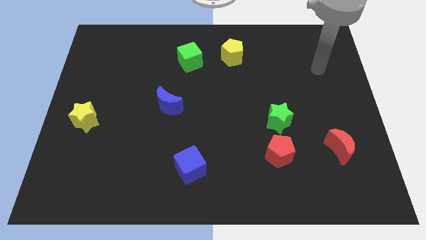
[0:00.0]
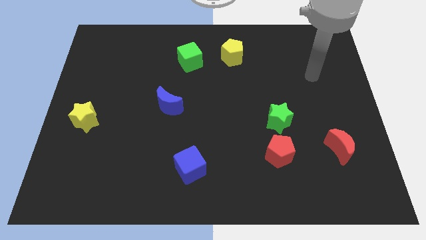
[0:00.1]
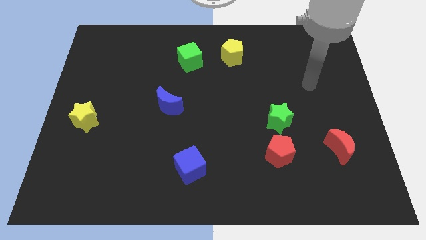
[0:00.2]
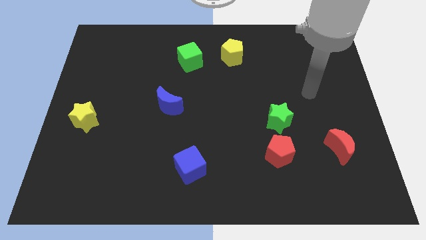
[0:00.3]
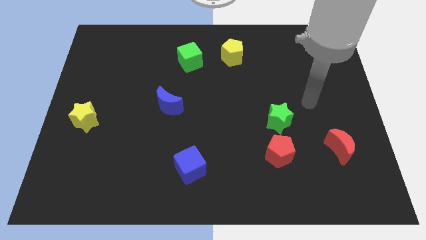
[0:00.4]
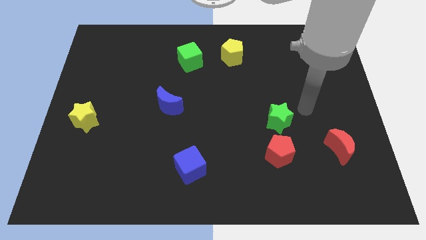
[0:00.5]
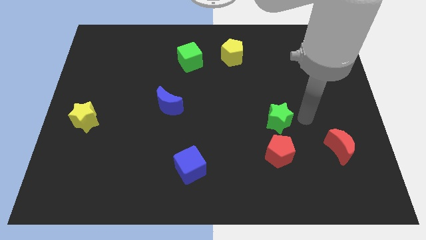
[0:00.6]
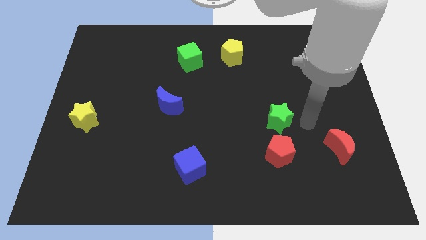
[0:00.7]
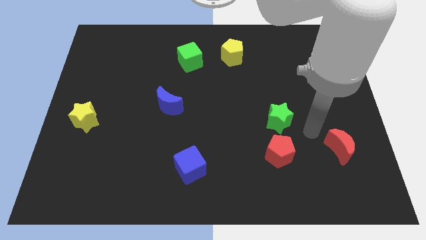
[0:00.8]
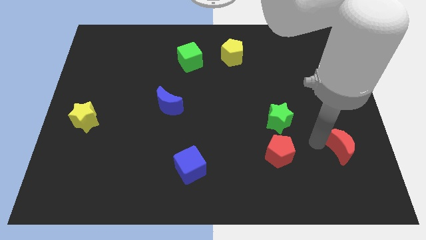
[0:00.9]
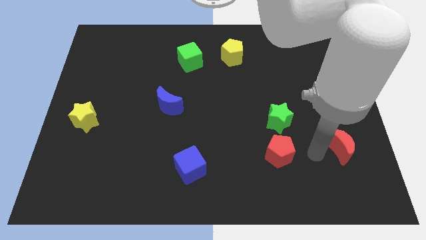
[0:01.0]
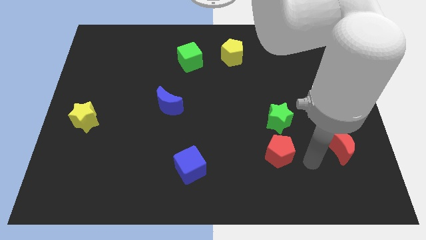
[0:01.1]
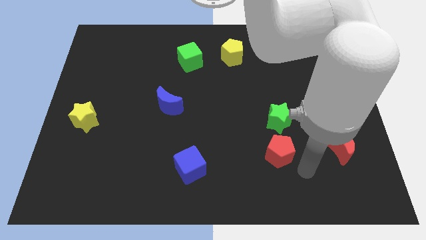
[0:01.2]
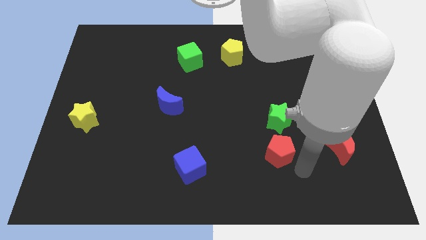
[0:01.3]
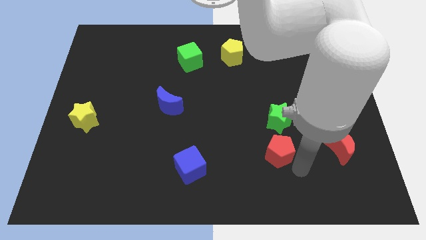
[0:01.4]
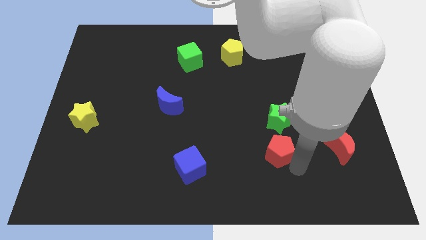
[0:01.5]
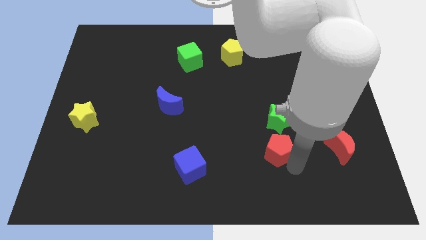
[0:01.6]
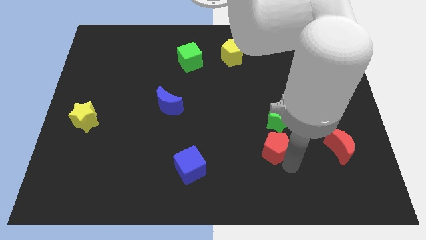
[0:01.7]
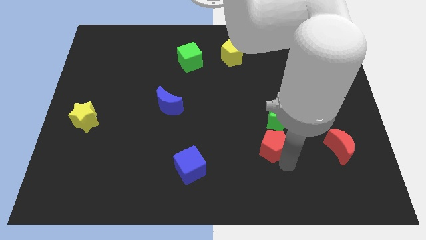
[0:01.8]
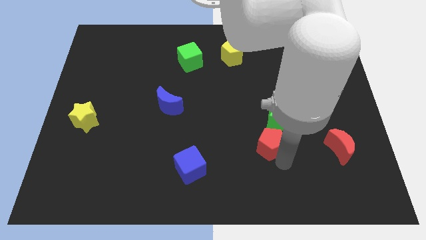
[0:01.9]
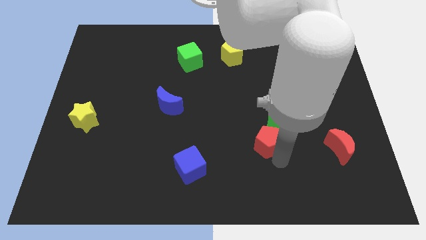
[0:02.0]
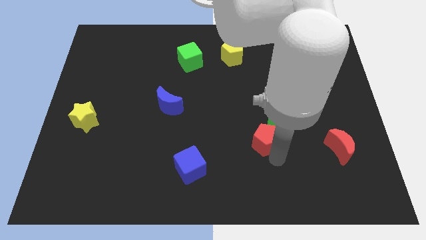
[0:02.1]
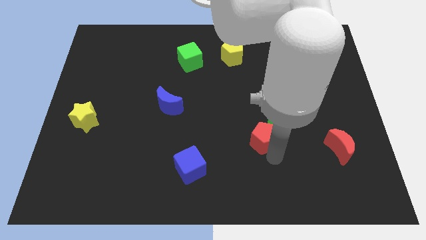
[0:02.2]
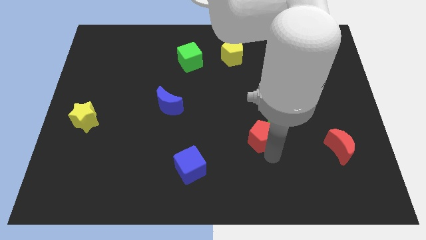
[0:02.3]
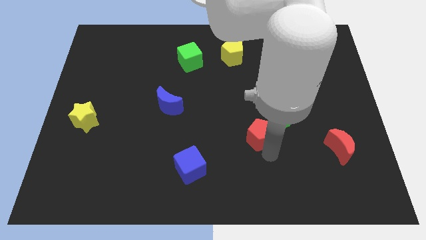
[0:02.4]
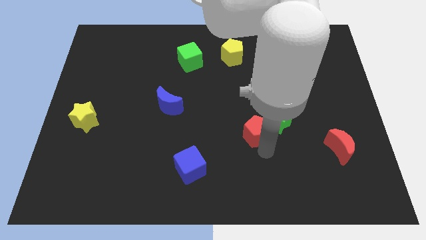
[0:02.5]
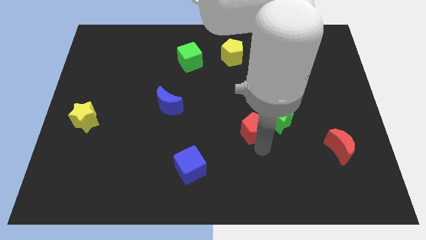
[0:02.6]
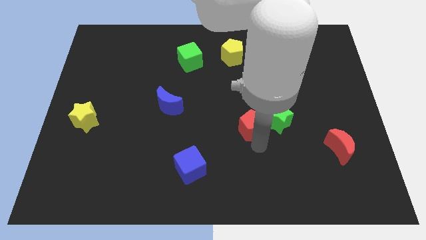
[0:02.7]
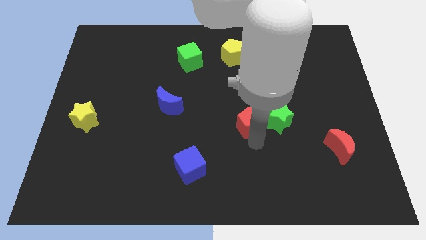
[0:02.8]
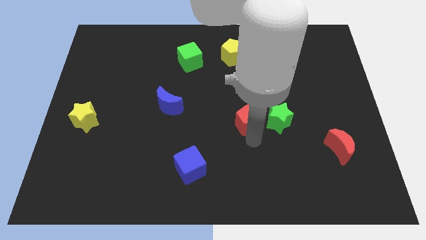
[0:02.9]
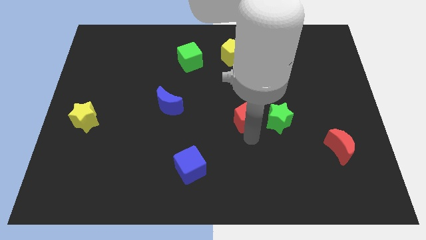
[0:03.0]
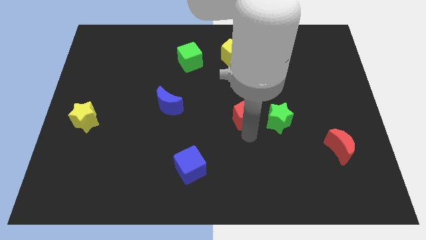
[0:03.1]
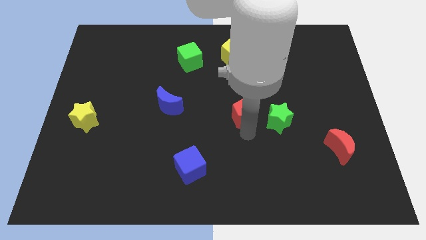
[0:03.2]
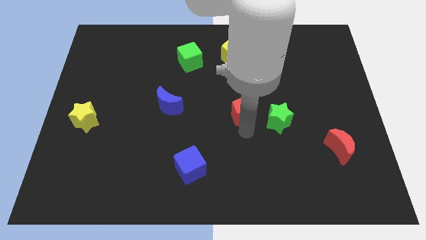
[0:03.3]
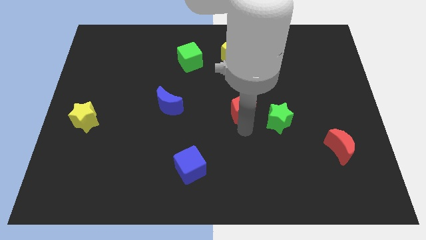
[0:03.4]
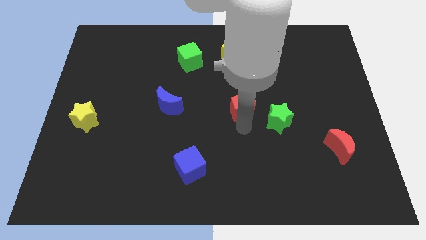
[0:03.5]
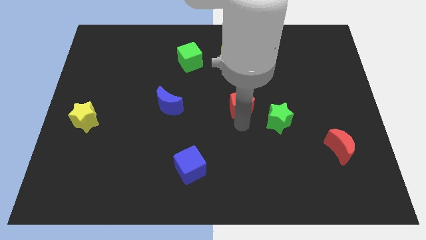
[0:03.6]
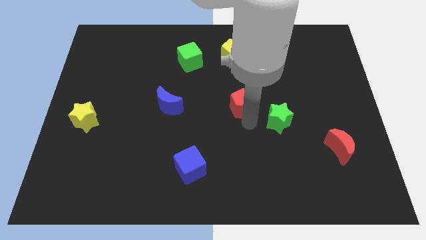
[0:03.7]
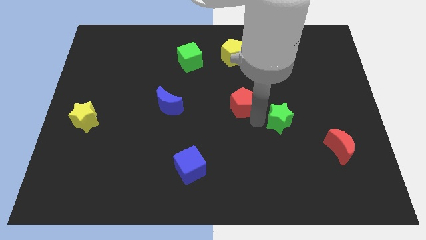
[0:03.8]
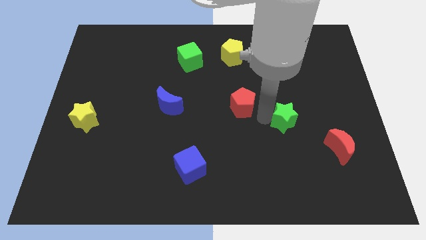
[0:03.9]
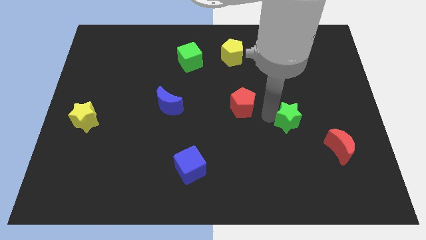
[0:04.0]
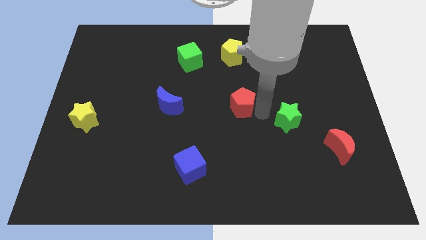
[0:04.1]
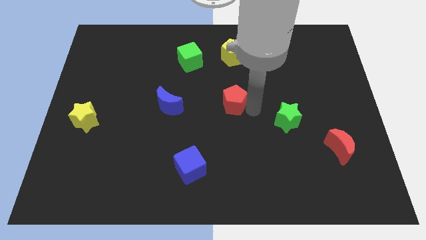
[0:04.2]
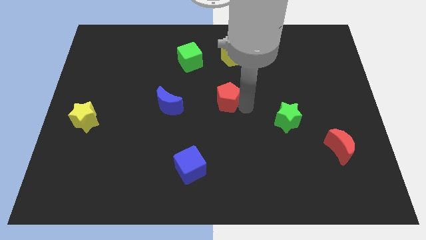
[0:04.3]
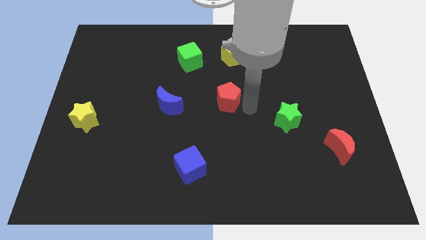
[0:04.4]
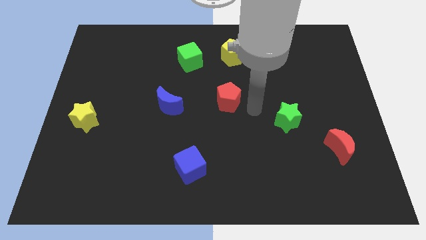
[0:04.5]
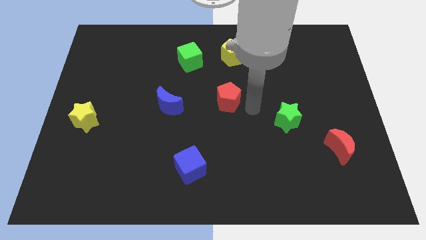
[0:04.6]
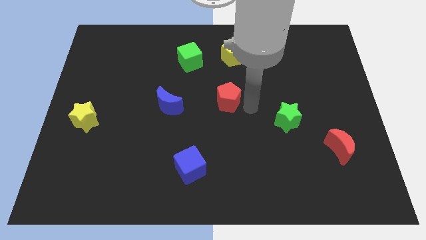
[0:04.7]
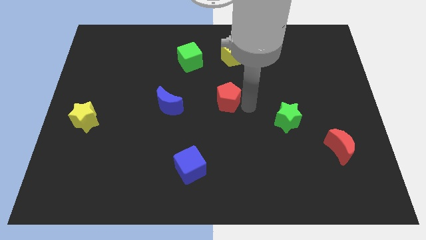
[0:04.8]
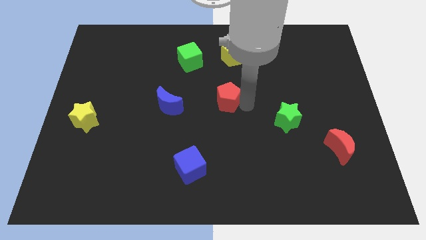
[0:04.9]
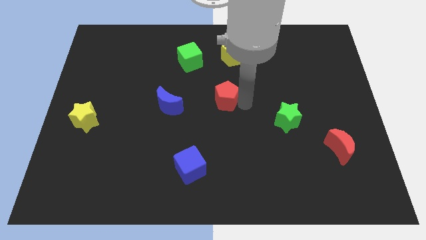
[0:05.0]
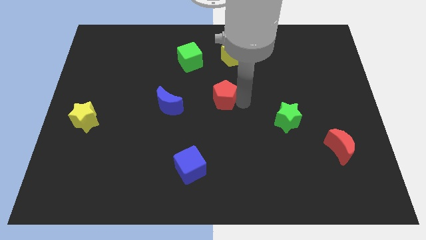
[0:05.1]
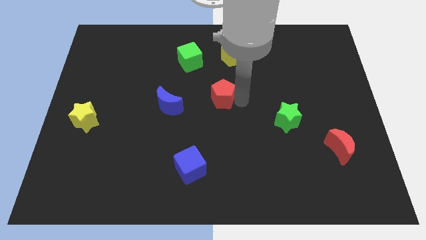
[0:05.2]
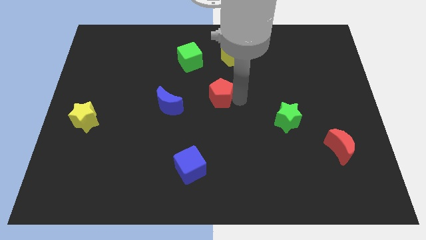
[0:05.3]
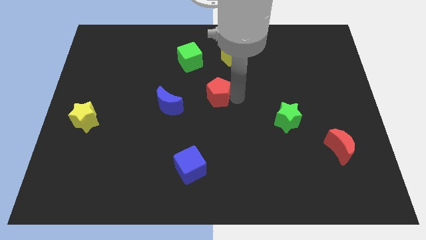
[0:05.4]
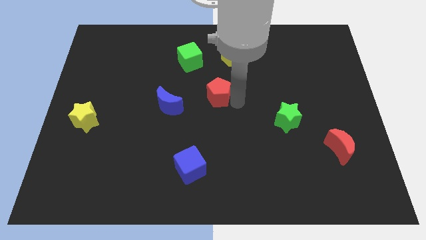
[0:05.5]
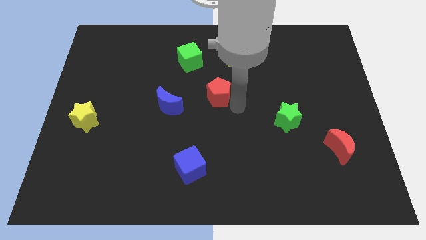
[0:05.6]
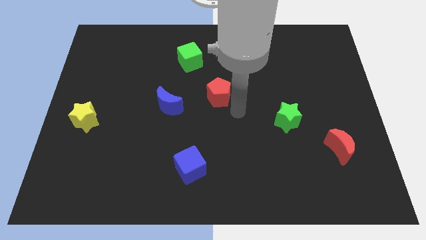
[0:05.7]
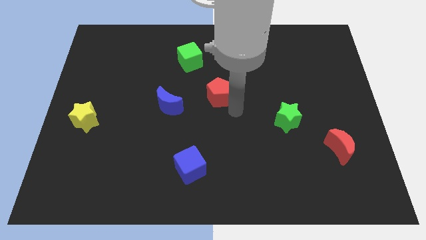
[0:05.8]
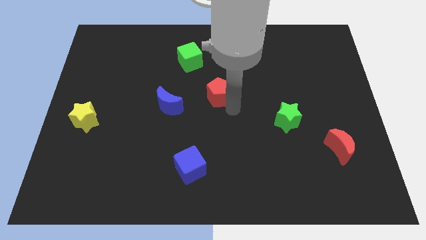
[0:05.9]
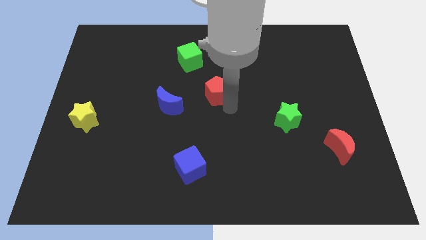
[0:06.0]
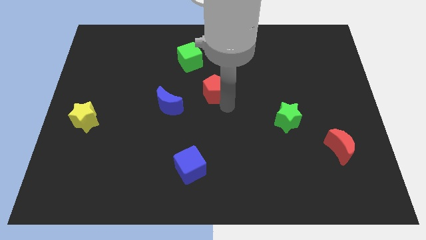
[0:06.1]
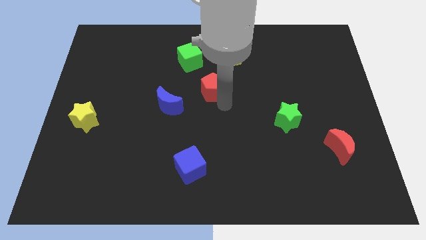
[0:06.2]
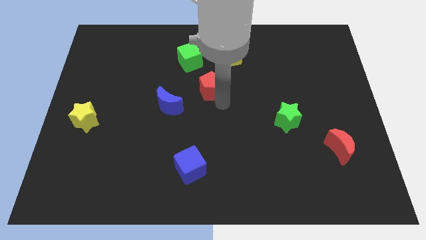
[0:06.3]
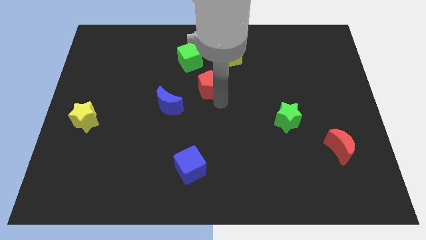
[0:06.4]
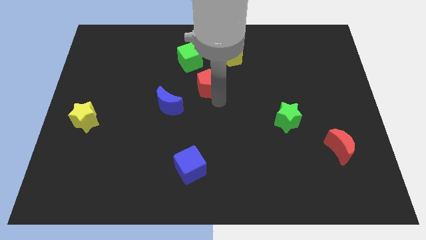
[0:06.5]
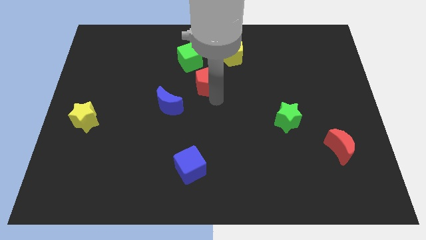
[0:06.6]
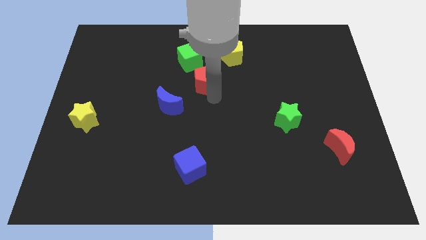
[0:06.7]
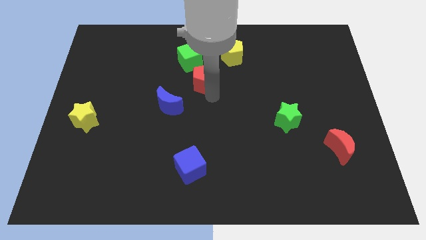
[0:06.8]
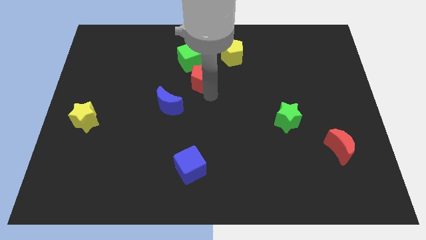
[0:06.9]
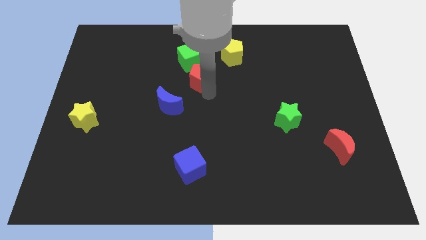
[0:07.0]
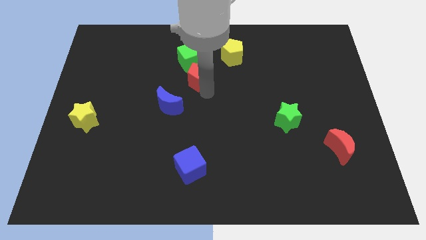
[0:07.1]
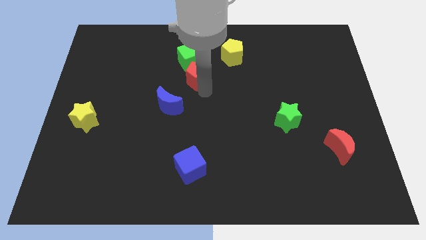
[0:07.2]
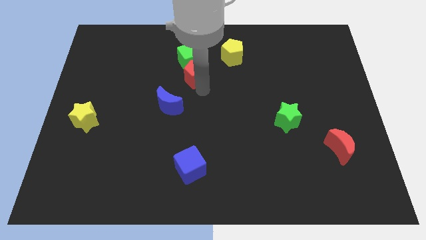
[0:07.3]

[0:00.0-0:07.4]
put the red pentagon towards the green cube

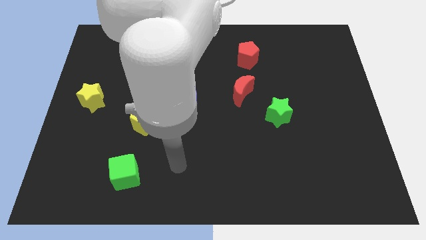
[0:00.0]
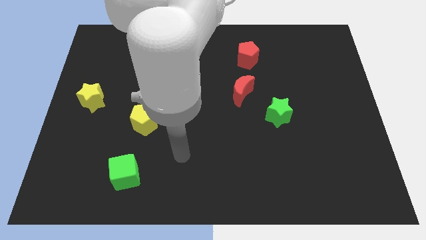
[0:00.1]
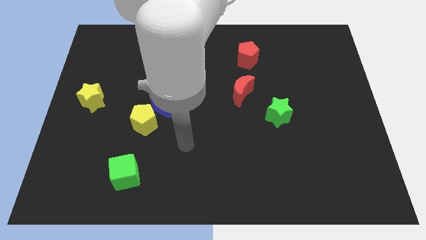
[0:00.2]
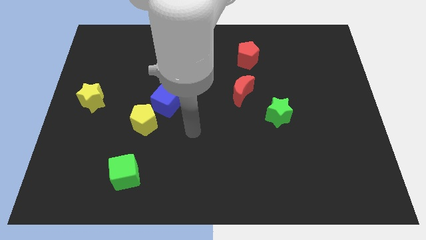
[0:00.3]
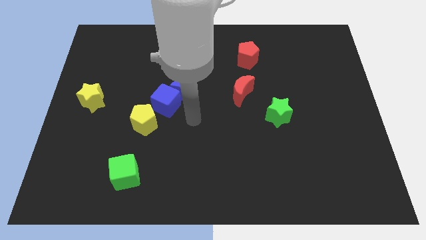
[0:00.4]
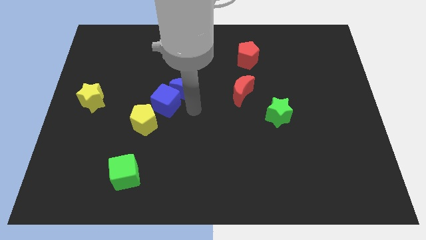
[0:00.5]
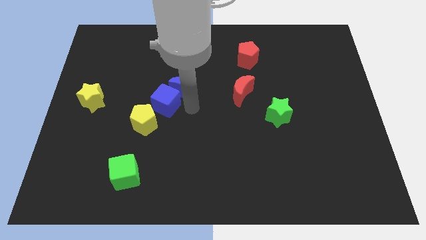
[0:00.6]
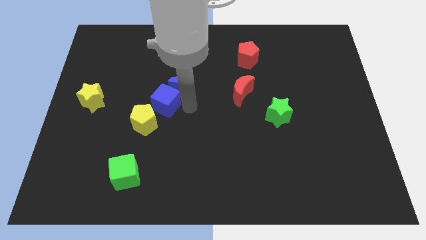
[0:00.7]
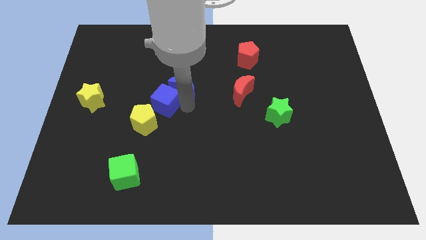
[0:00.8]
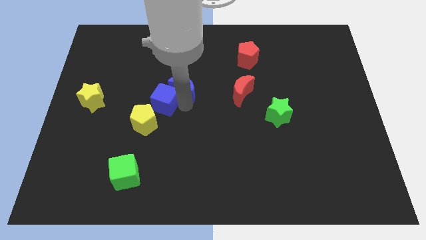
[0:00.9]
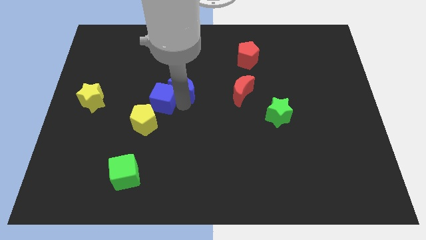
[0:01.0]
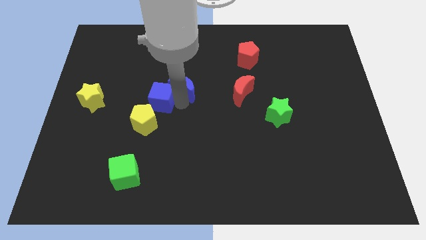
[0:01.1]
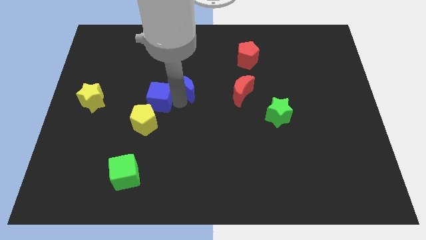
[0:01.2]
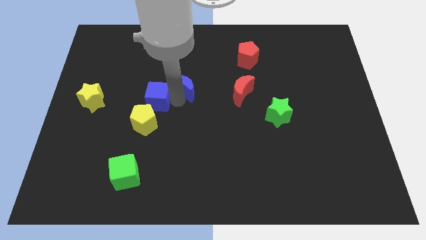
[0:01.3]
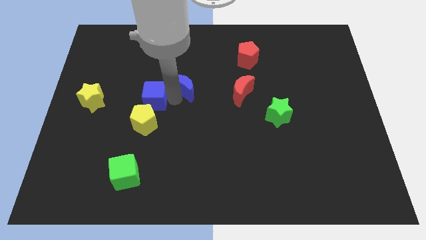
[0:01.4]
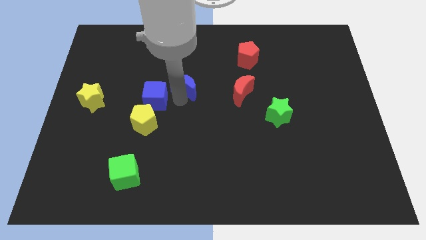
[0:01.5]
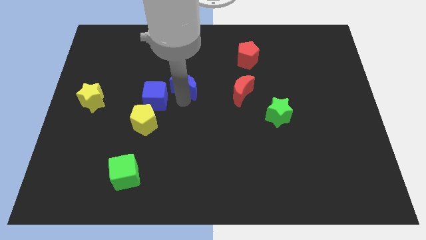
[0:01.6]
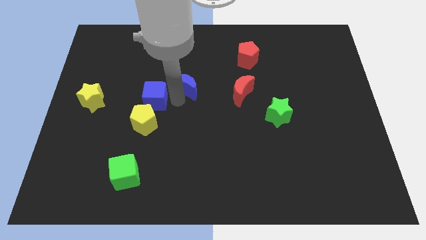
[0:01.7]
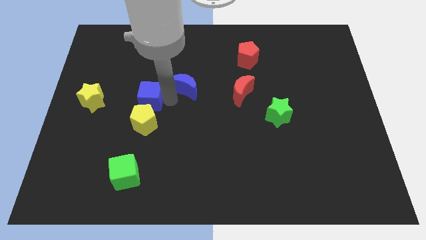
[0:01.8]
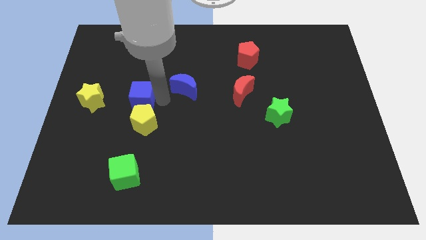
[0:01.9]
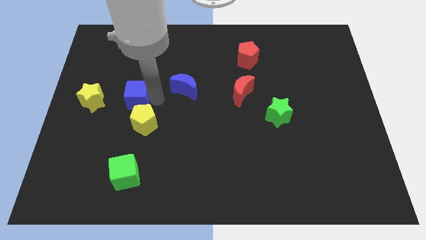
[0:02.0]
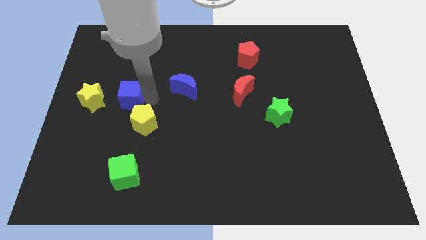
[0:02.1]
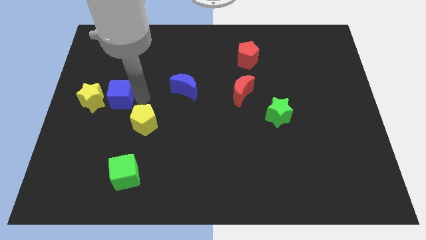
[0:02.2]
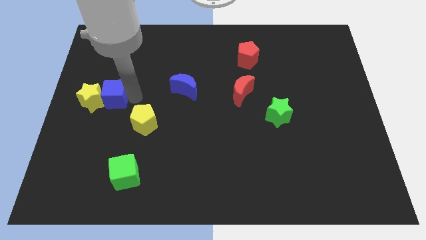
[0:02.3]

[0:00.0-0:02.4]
put the blue cube to the yellow star
